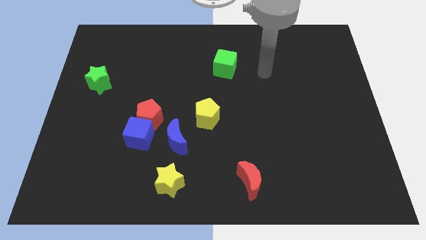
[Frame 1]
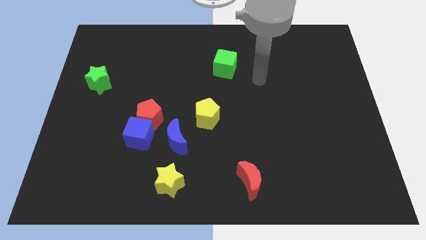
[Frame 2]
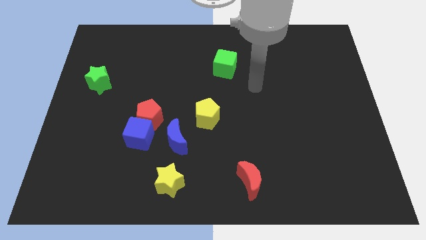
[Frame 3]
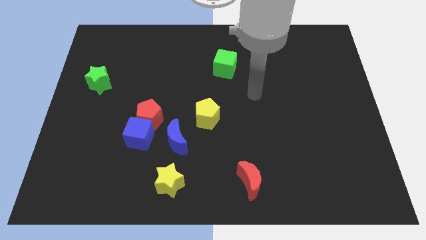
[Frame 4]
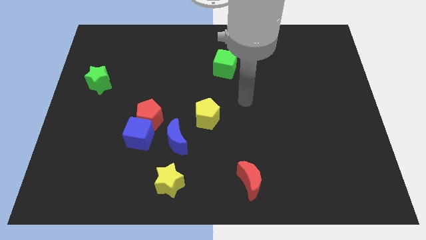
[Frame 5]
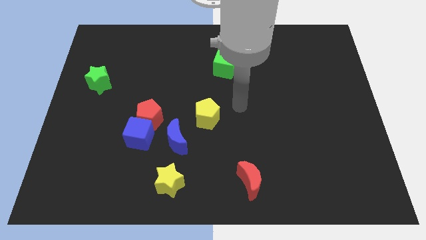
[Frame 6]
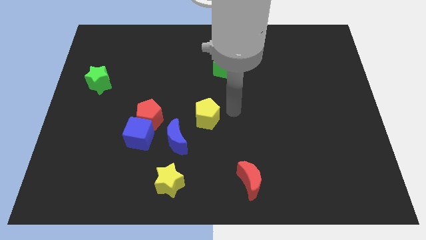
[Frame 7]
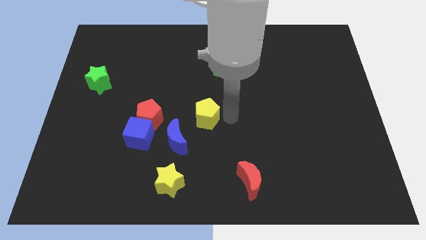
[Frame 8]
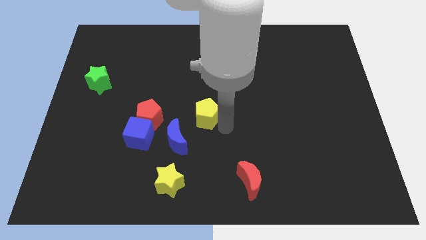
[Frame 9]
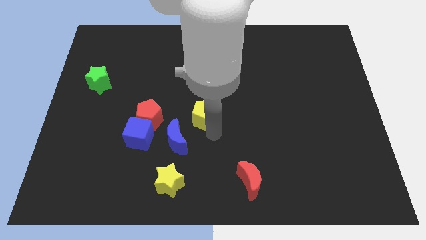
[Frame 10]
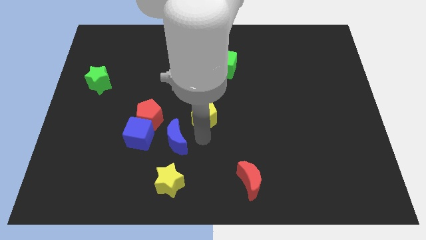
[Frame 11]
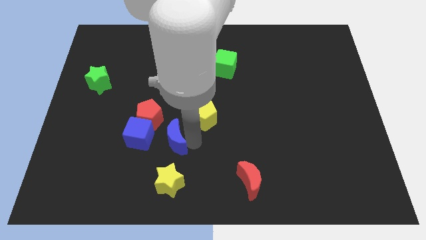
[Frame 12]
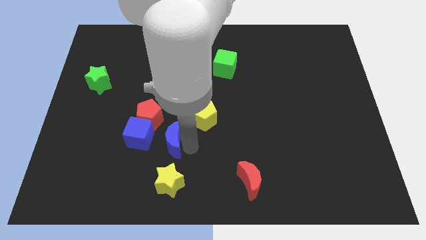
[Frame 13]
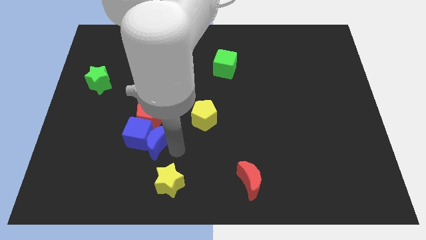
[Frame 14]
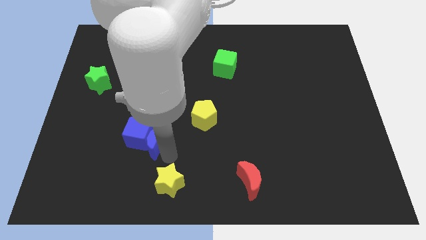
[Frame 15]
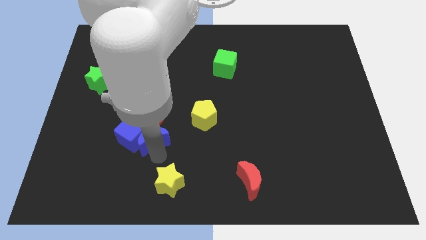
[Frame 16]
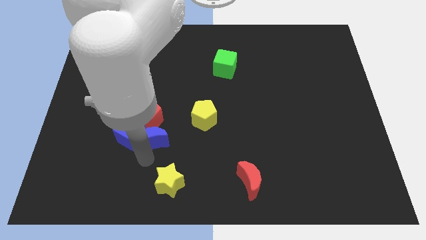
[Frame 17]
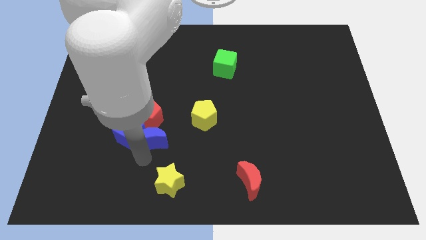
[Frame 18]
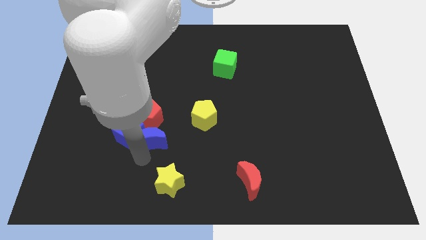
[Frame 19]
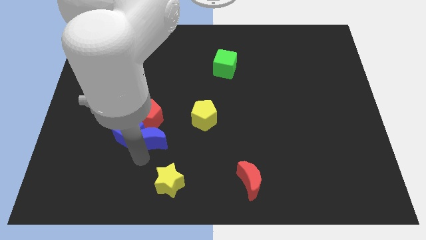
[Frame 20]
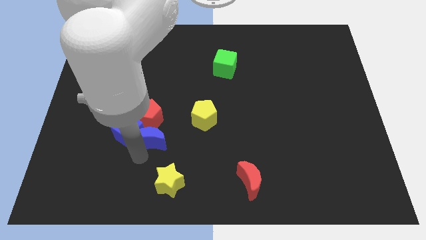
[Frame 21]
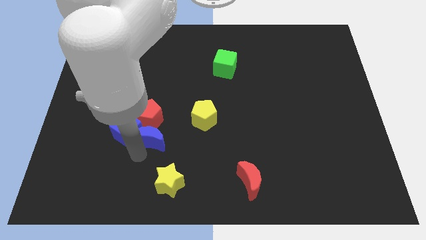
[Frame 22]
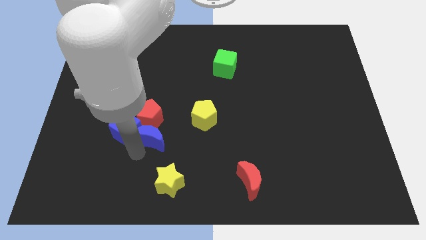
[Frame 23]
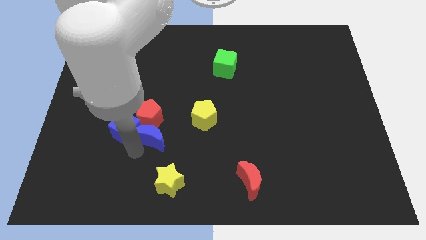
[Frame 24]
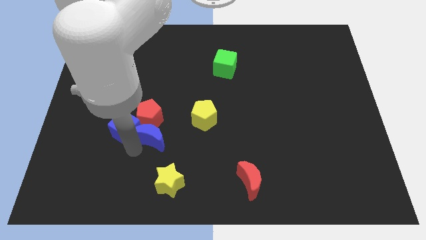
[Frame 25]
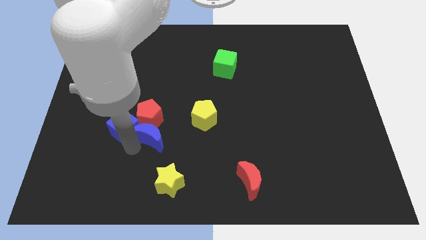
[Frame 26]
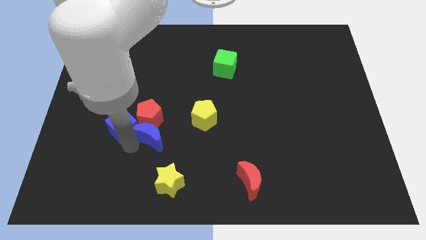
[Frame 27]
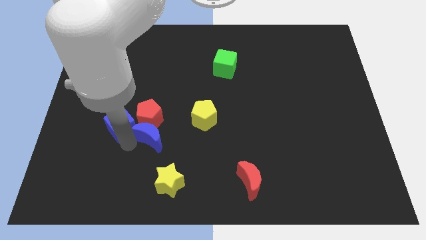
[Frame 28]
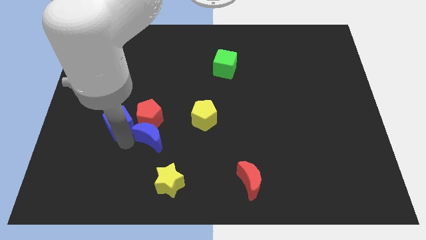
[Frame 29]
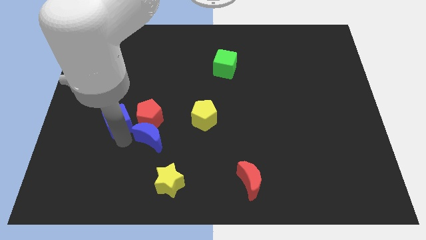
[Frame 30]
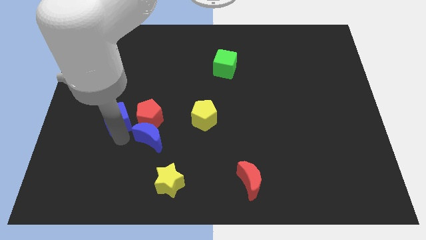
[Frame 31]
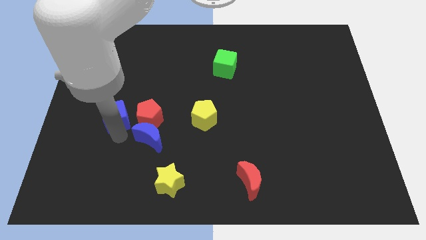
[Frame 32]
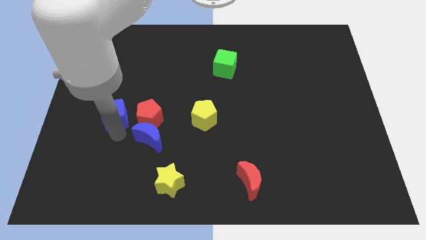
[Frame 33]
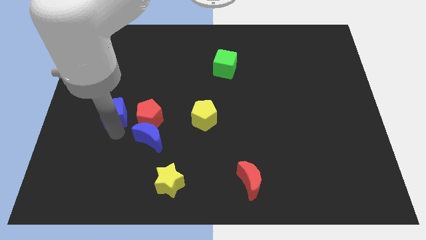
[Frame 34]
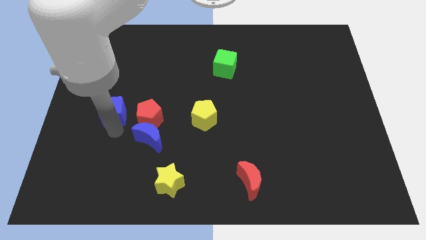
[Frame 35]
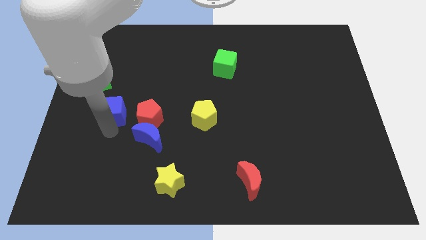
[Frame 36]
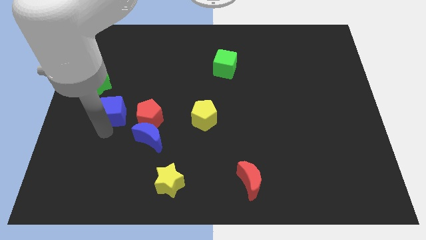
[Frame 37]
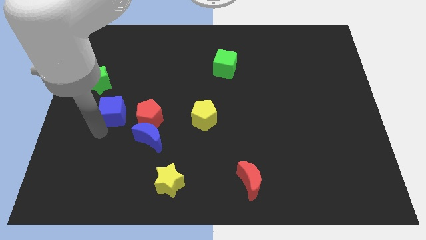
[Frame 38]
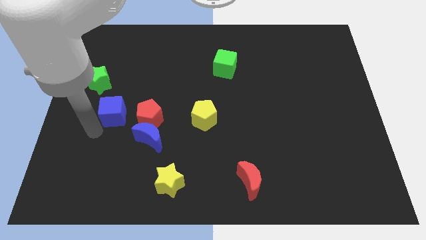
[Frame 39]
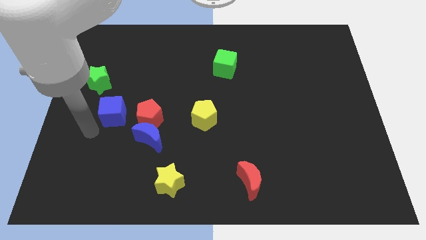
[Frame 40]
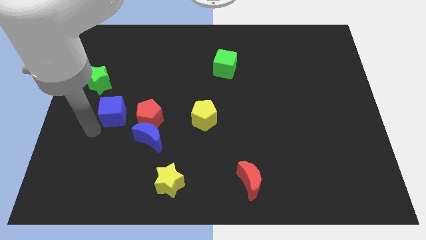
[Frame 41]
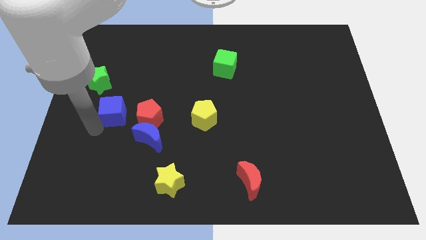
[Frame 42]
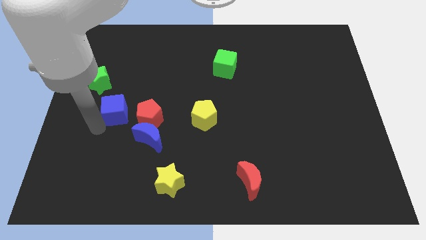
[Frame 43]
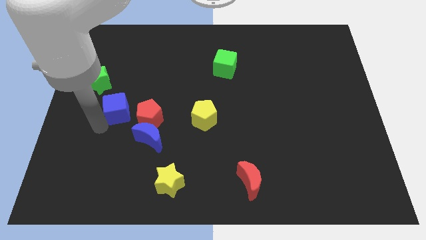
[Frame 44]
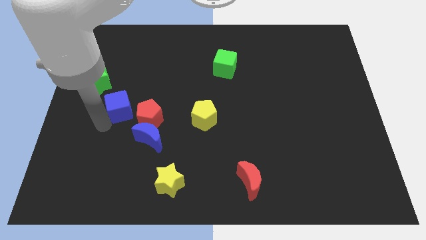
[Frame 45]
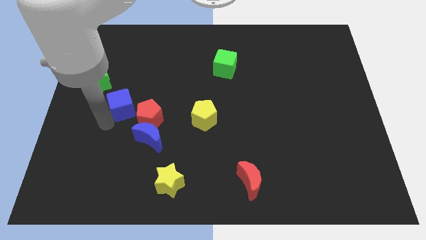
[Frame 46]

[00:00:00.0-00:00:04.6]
slide the blue cube upwards a little

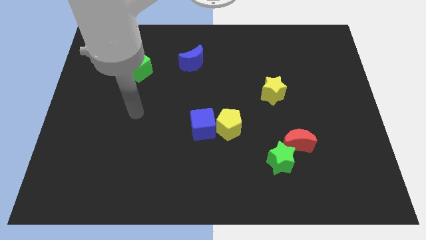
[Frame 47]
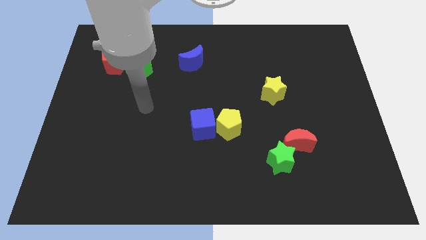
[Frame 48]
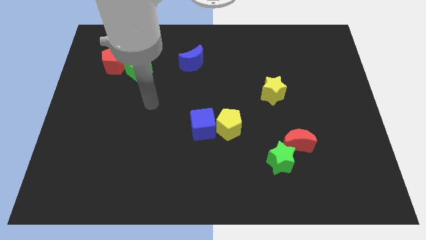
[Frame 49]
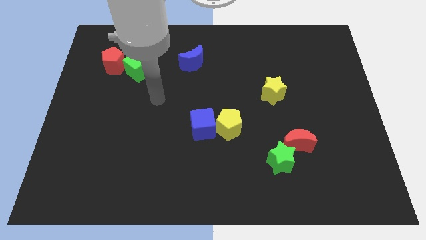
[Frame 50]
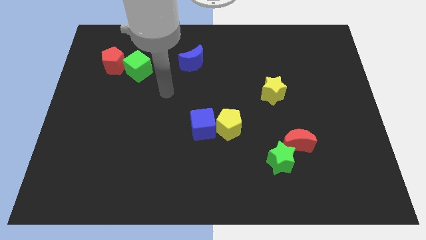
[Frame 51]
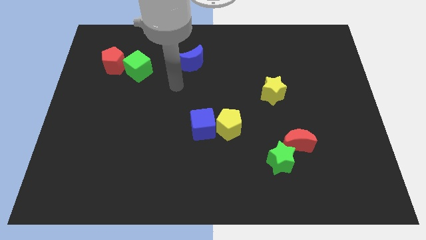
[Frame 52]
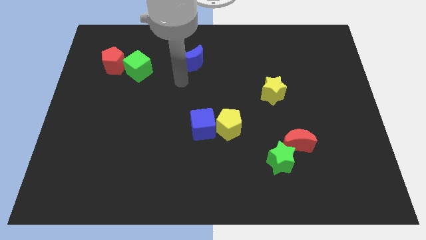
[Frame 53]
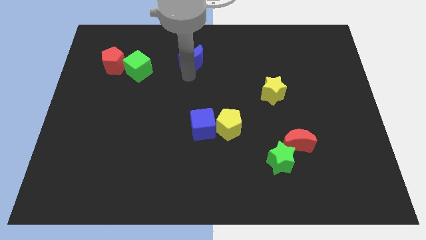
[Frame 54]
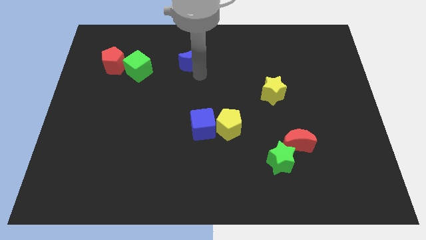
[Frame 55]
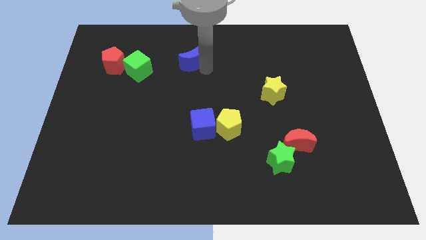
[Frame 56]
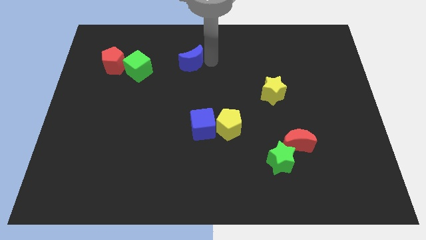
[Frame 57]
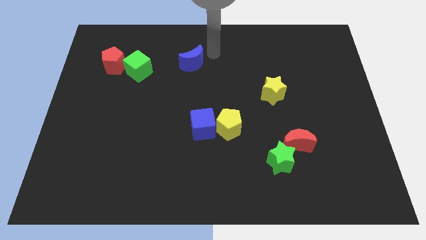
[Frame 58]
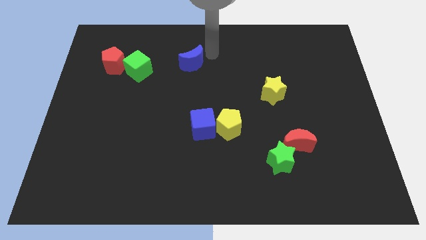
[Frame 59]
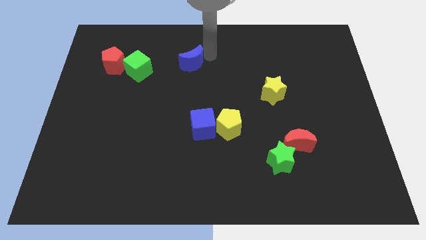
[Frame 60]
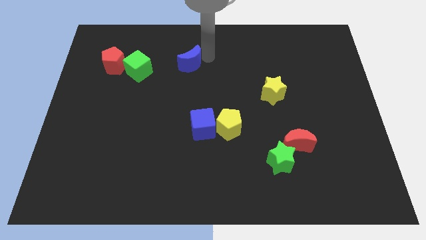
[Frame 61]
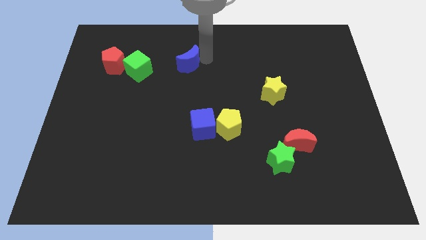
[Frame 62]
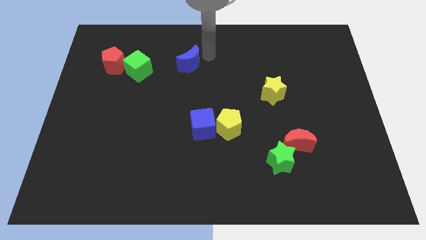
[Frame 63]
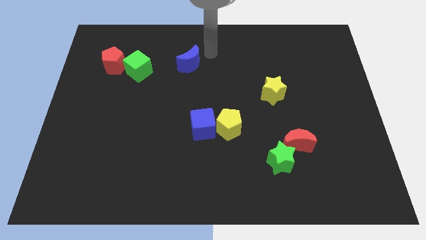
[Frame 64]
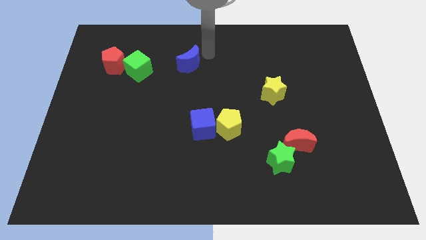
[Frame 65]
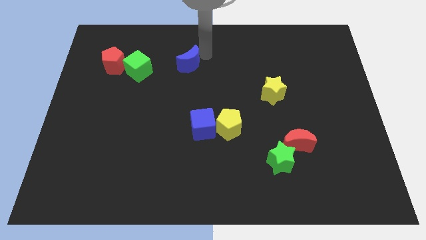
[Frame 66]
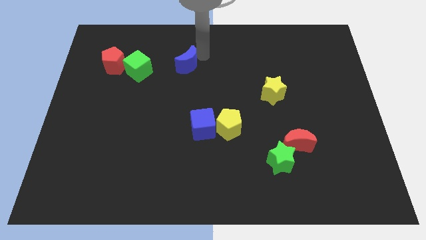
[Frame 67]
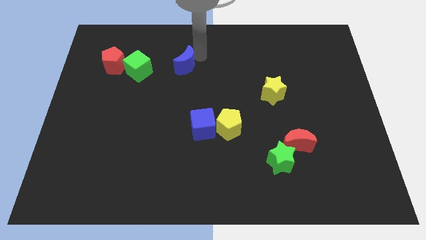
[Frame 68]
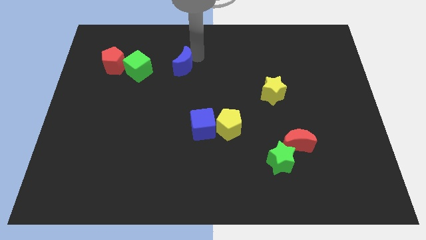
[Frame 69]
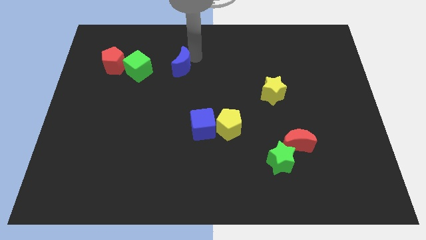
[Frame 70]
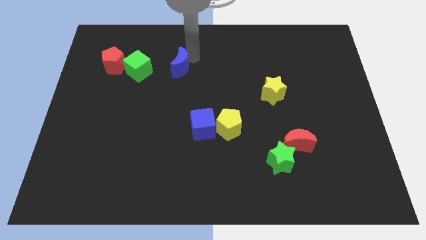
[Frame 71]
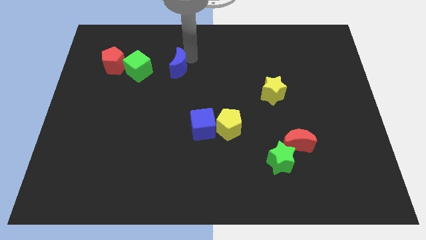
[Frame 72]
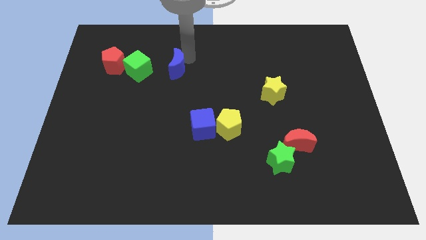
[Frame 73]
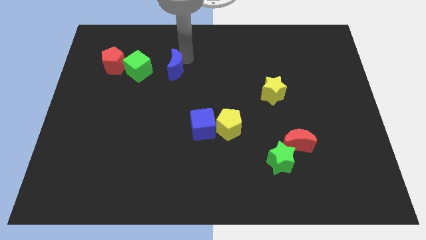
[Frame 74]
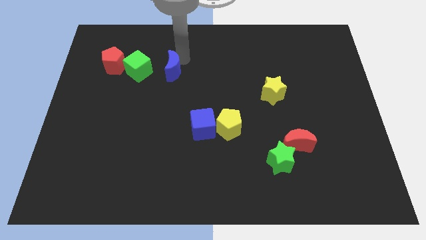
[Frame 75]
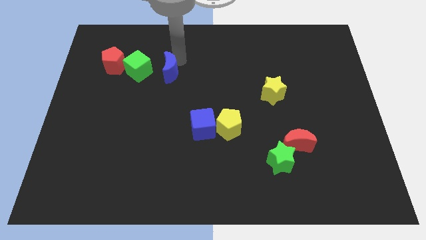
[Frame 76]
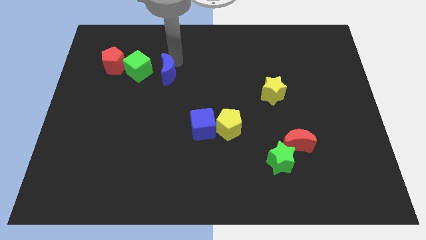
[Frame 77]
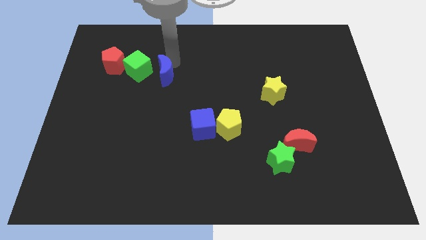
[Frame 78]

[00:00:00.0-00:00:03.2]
push the blue moon downwards and left a little

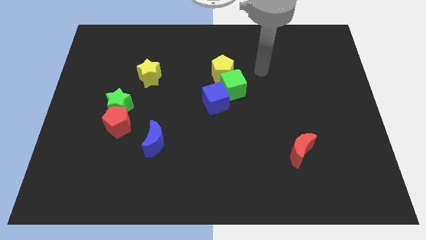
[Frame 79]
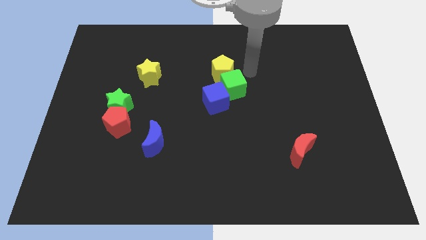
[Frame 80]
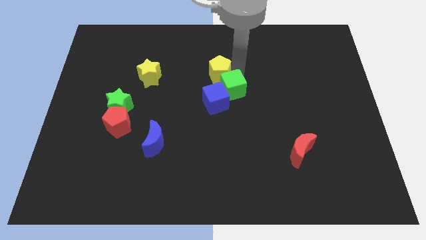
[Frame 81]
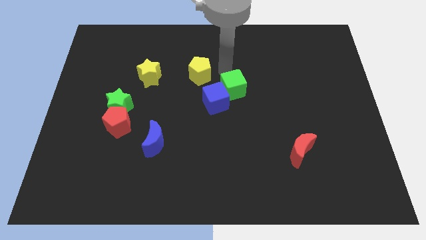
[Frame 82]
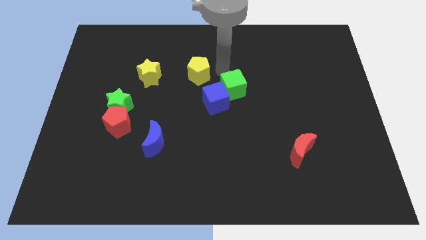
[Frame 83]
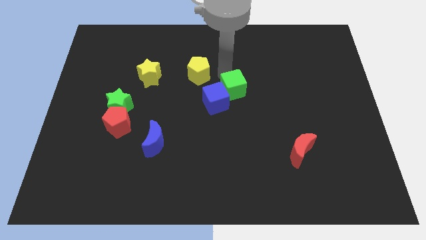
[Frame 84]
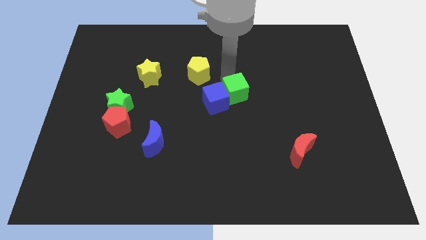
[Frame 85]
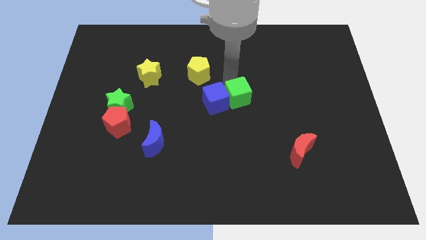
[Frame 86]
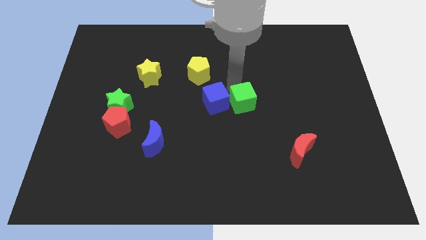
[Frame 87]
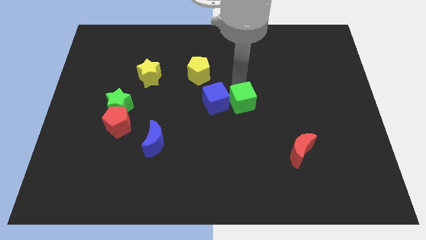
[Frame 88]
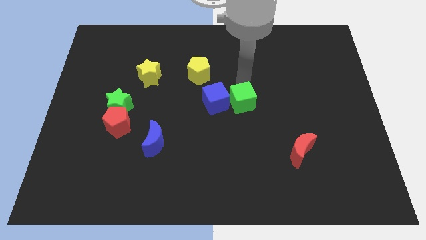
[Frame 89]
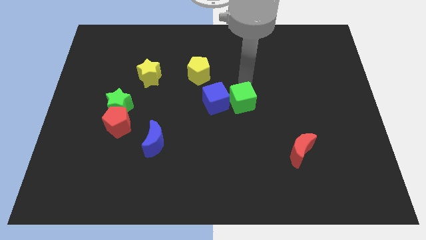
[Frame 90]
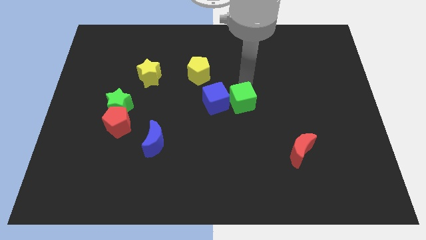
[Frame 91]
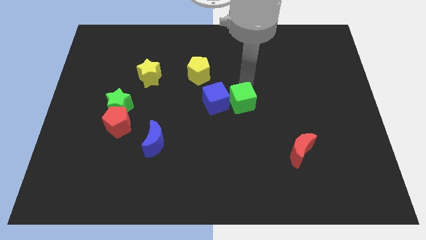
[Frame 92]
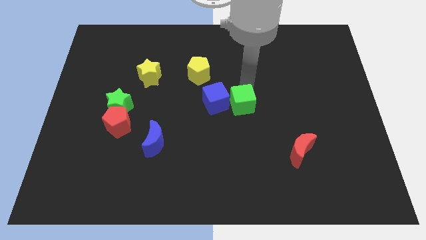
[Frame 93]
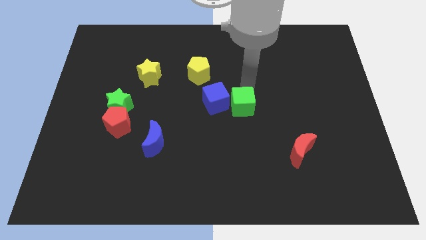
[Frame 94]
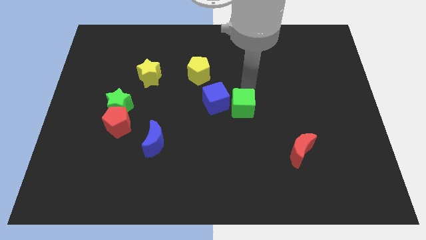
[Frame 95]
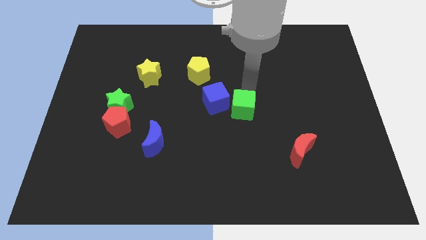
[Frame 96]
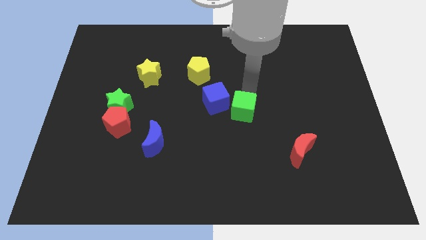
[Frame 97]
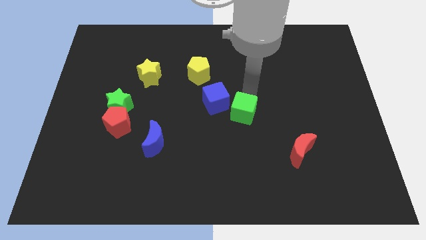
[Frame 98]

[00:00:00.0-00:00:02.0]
move the green cube downwards a little bit
